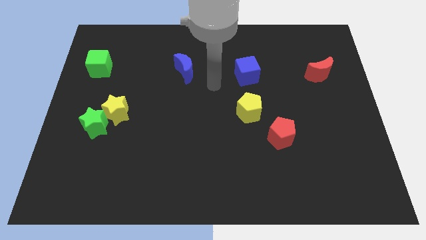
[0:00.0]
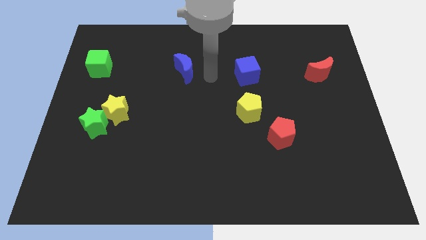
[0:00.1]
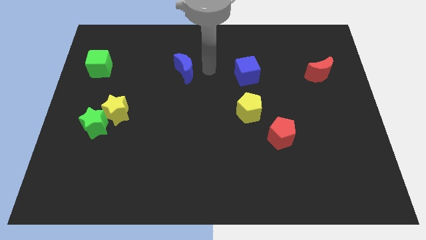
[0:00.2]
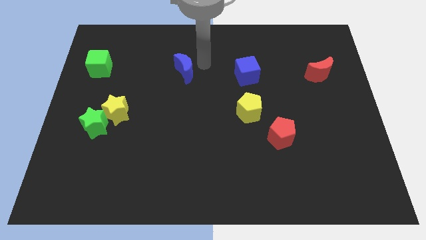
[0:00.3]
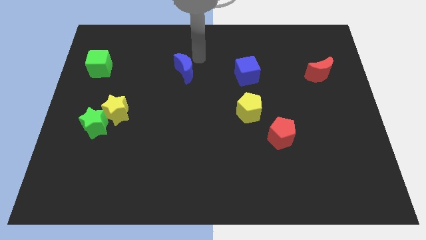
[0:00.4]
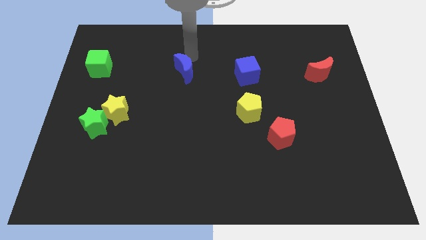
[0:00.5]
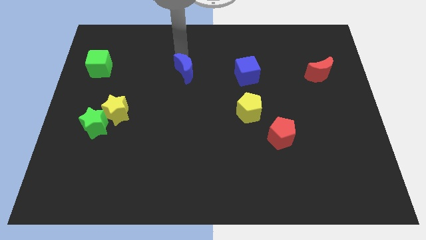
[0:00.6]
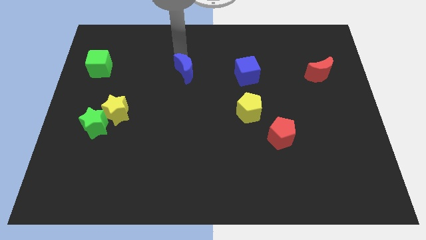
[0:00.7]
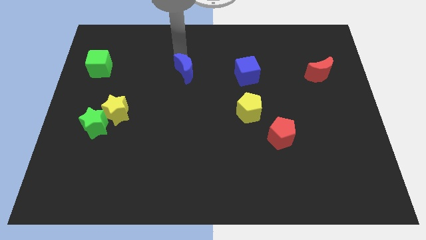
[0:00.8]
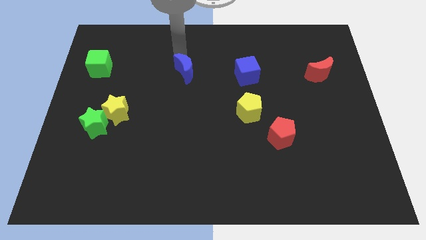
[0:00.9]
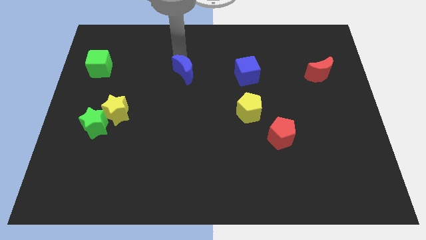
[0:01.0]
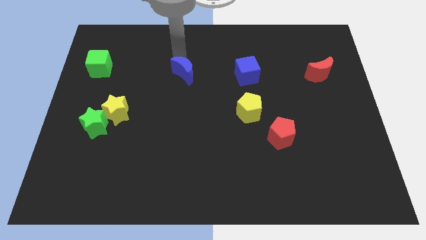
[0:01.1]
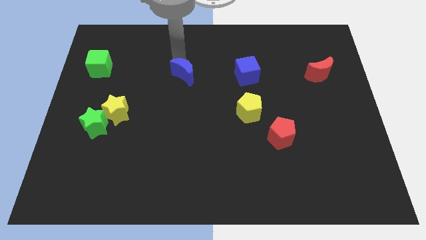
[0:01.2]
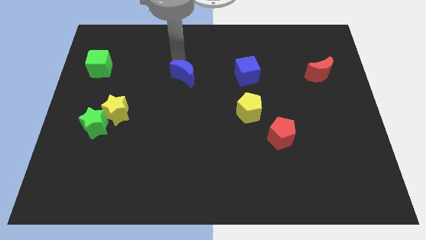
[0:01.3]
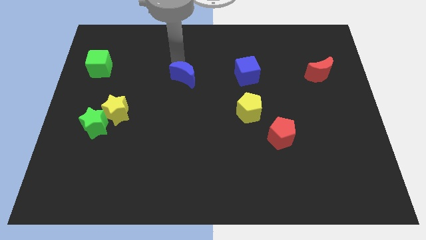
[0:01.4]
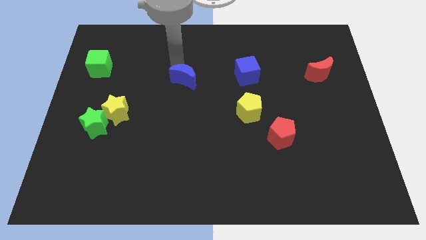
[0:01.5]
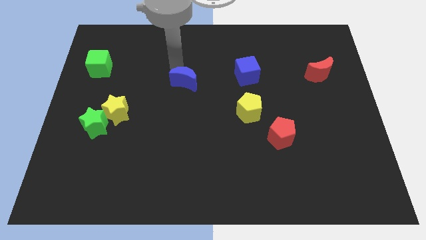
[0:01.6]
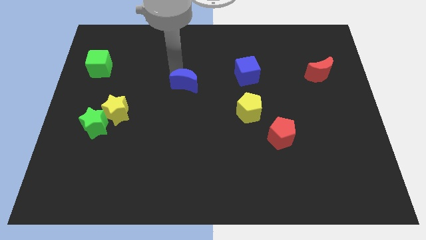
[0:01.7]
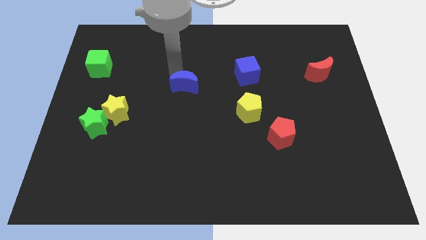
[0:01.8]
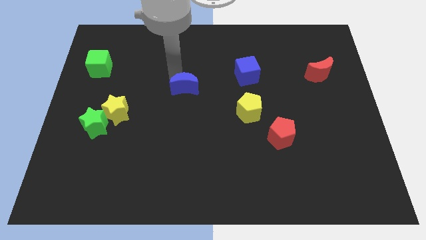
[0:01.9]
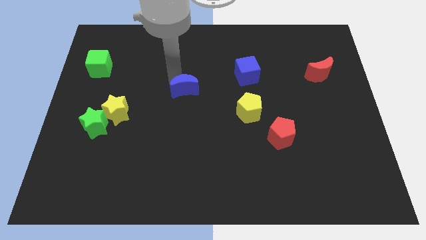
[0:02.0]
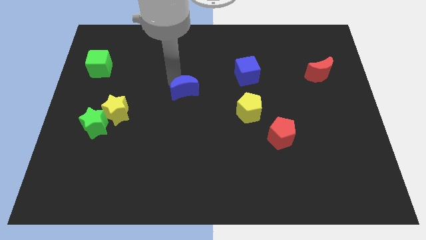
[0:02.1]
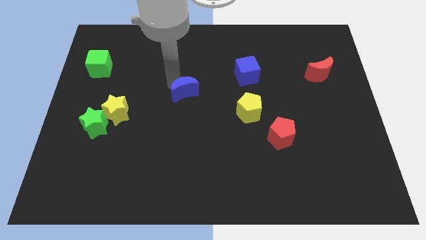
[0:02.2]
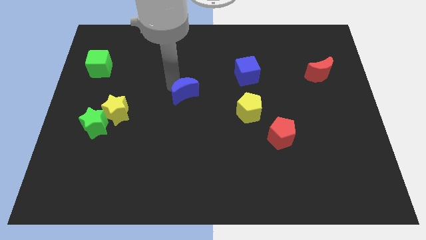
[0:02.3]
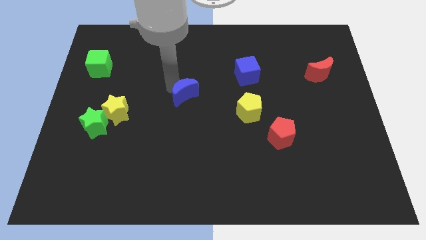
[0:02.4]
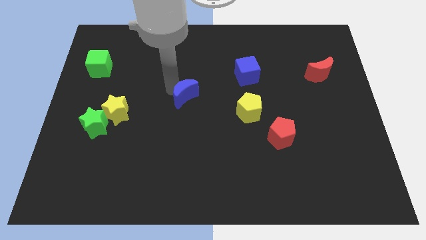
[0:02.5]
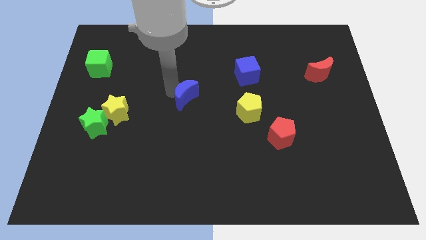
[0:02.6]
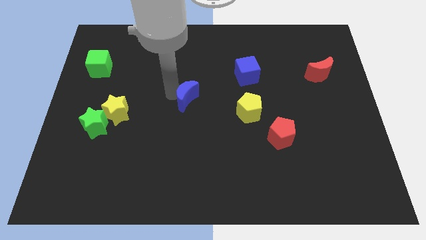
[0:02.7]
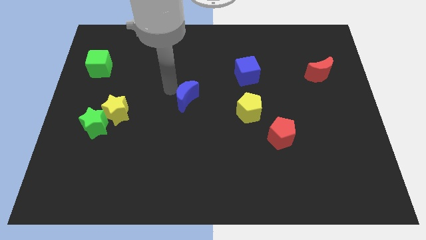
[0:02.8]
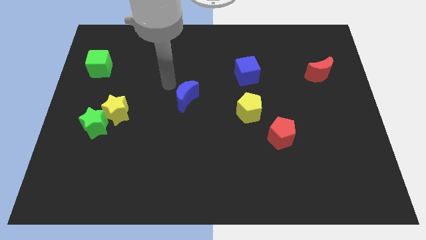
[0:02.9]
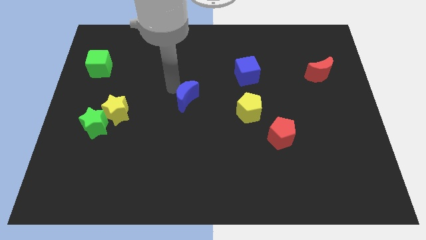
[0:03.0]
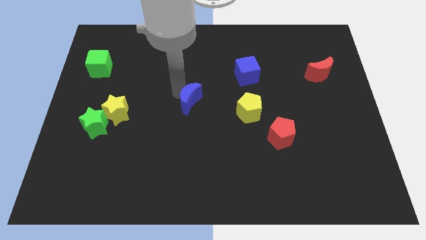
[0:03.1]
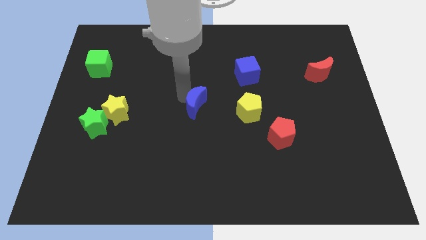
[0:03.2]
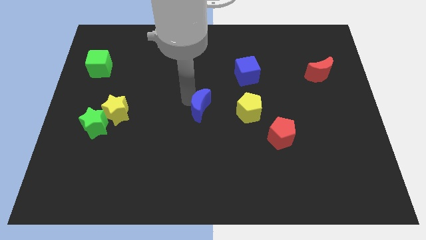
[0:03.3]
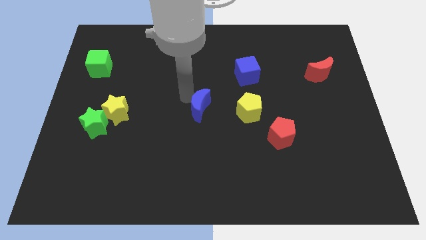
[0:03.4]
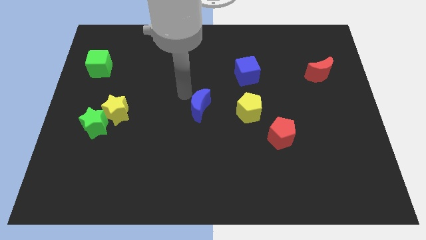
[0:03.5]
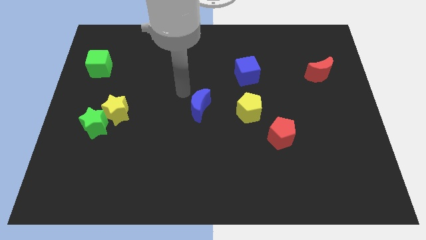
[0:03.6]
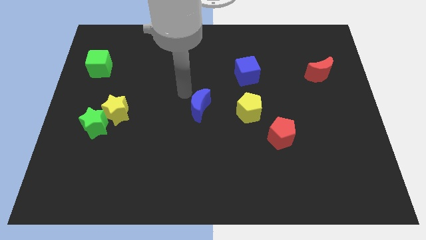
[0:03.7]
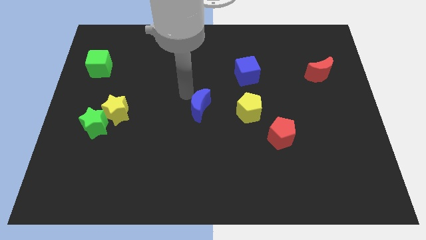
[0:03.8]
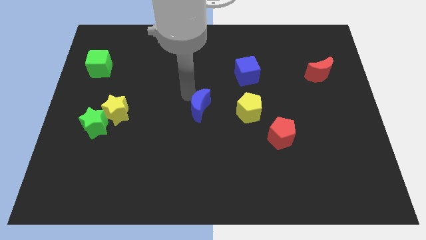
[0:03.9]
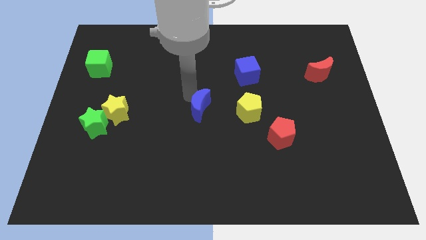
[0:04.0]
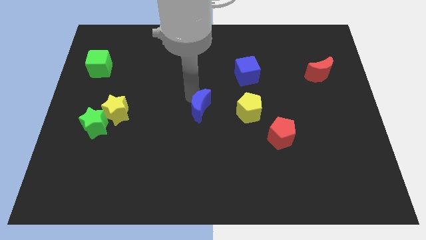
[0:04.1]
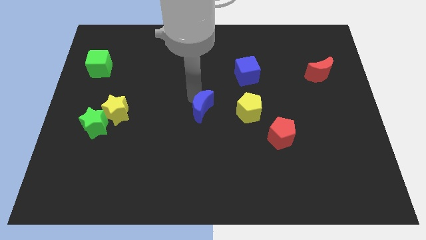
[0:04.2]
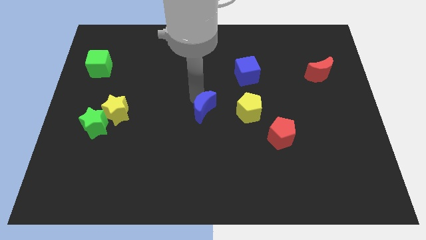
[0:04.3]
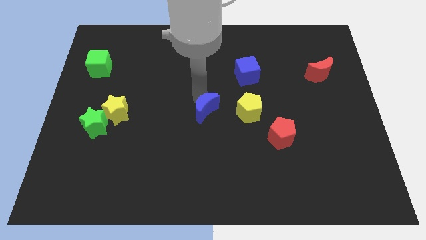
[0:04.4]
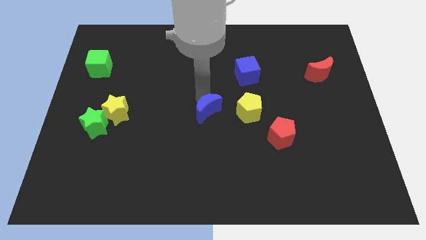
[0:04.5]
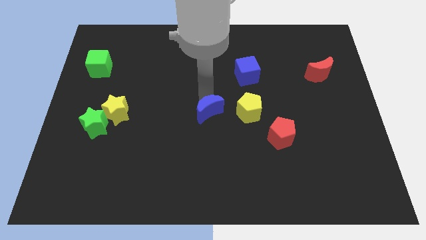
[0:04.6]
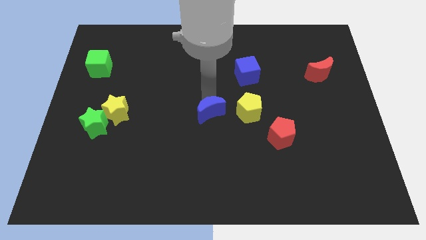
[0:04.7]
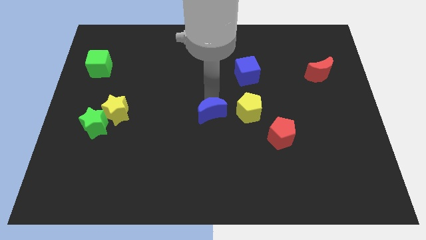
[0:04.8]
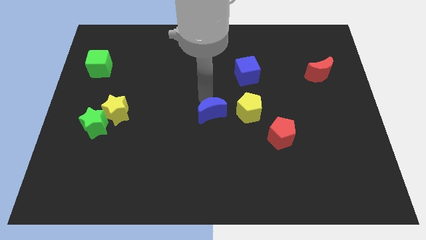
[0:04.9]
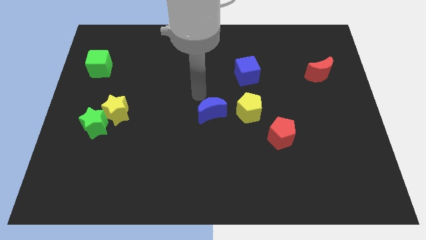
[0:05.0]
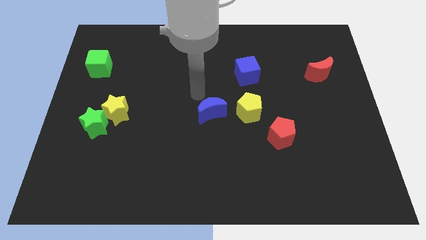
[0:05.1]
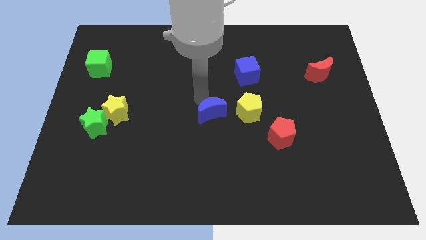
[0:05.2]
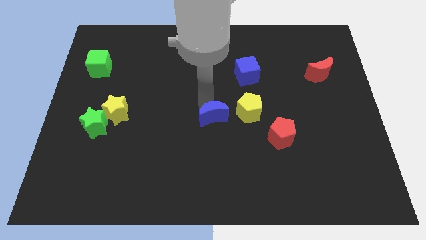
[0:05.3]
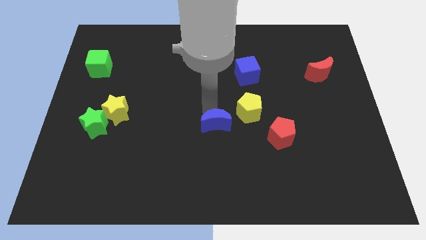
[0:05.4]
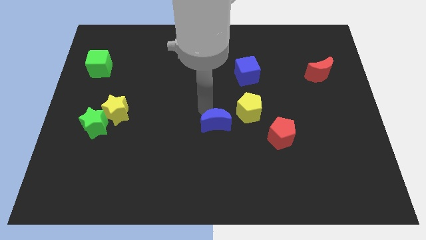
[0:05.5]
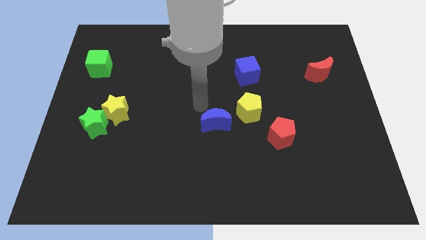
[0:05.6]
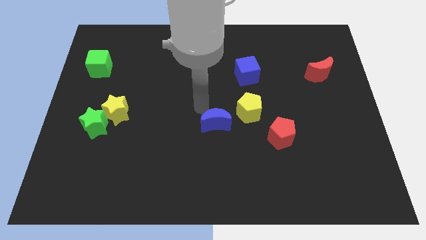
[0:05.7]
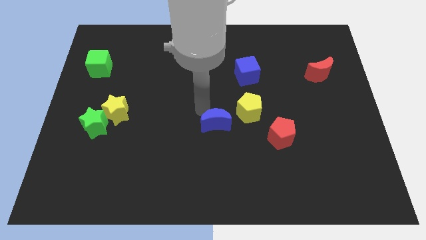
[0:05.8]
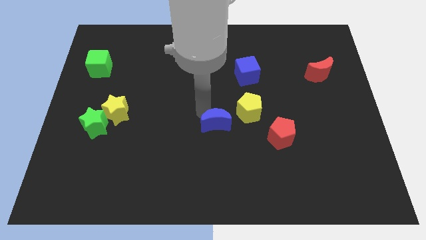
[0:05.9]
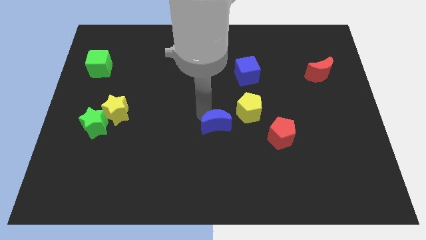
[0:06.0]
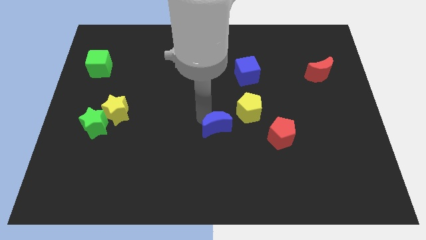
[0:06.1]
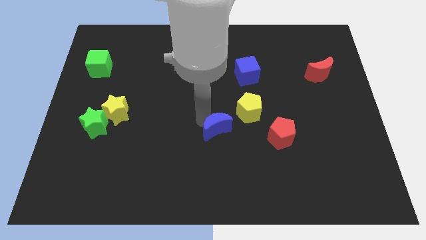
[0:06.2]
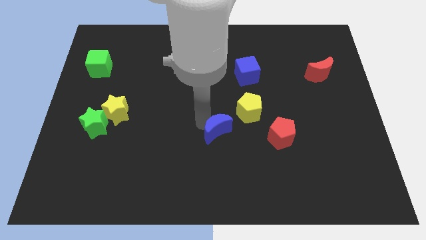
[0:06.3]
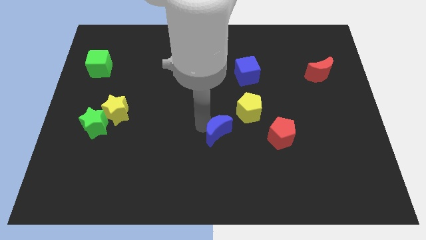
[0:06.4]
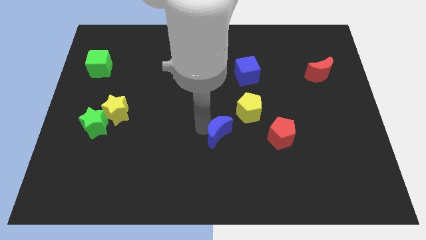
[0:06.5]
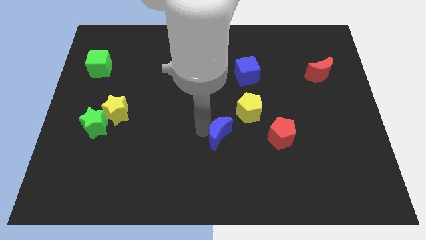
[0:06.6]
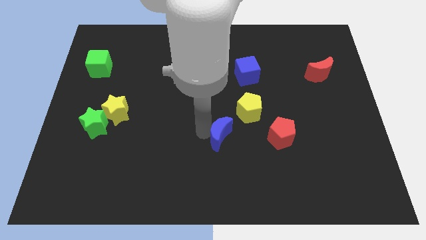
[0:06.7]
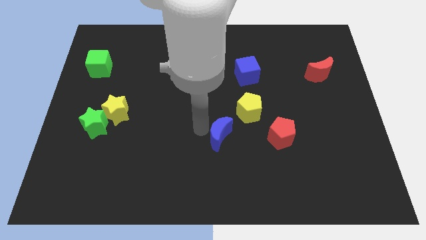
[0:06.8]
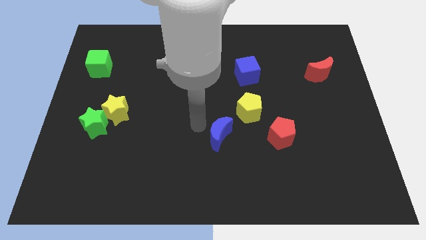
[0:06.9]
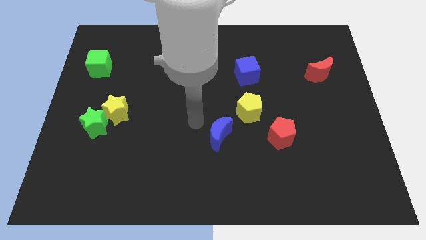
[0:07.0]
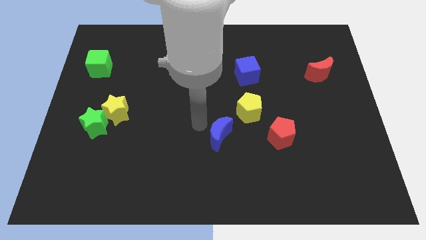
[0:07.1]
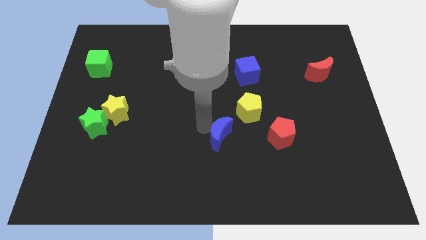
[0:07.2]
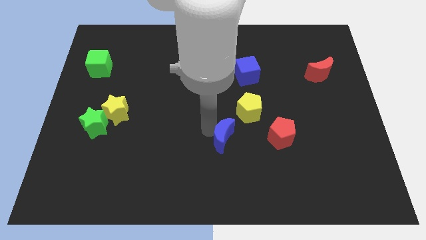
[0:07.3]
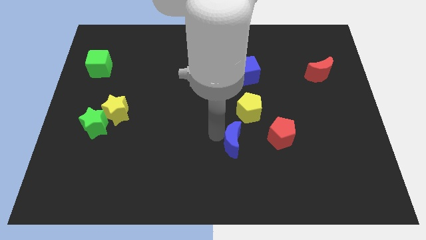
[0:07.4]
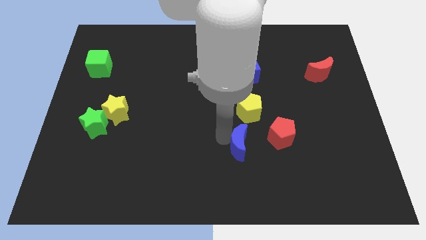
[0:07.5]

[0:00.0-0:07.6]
put the blue moon to the bottom left side of the red pentagon
